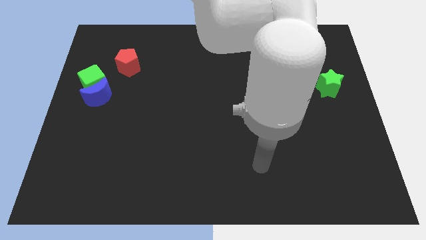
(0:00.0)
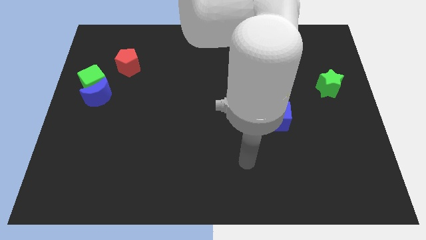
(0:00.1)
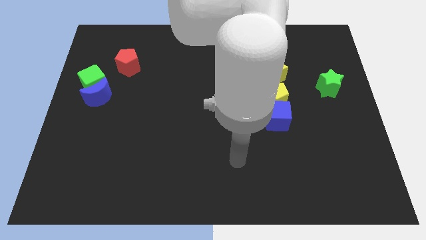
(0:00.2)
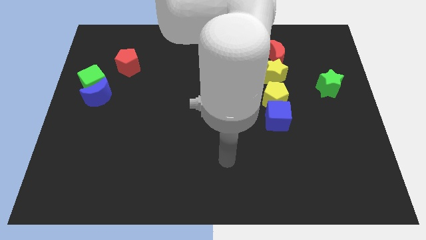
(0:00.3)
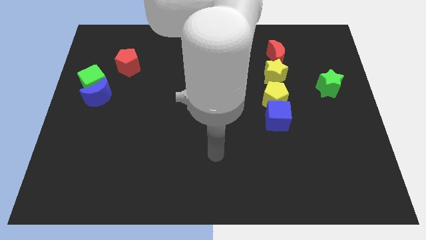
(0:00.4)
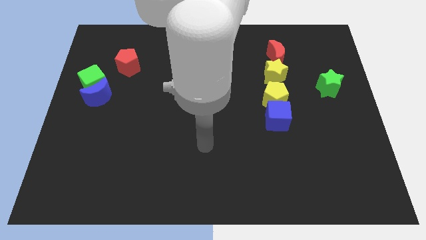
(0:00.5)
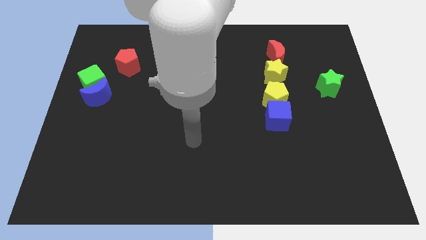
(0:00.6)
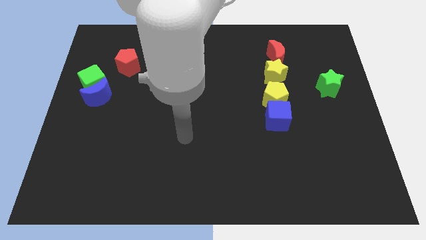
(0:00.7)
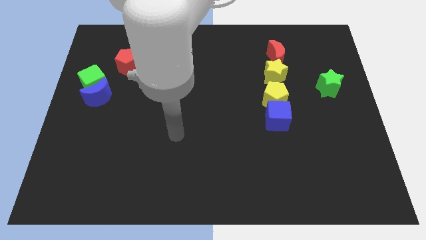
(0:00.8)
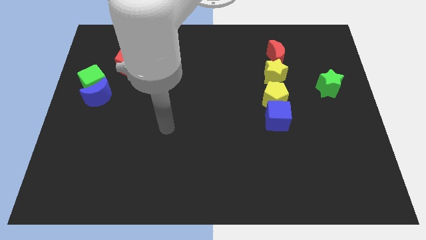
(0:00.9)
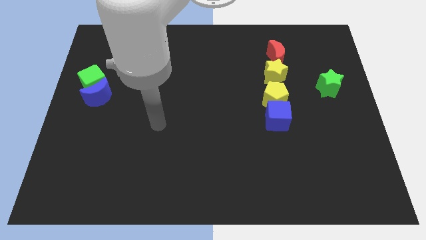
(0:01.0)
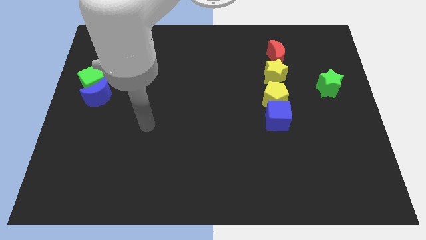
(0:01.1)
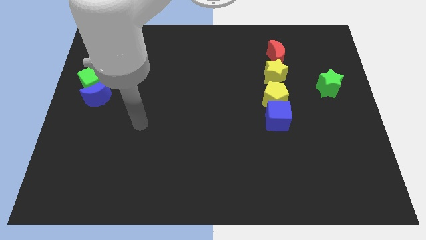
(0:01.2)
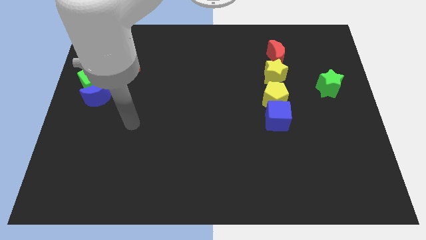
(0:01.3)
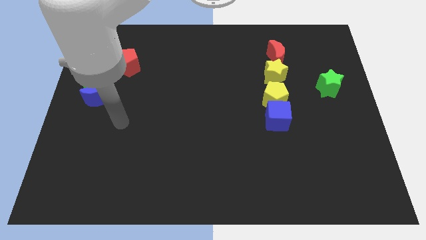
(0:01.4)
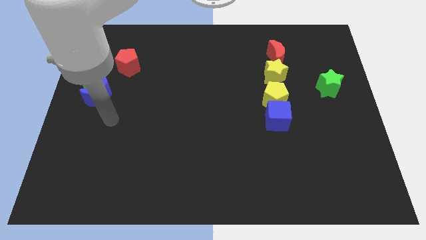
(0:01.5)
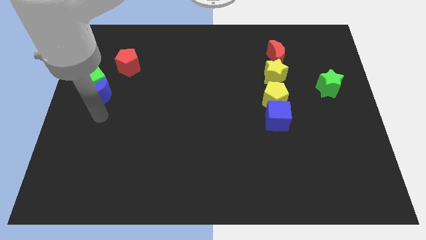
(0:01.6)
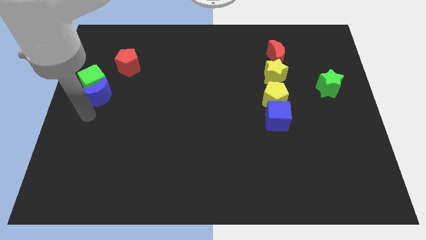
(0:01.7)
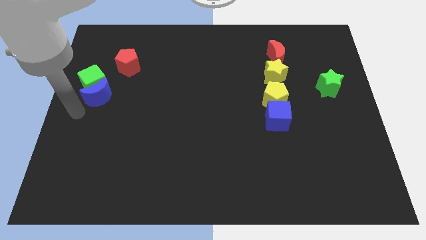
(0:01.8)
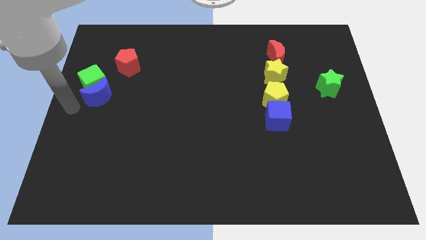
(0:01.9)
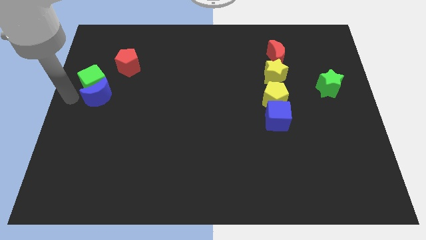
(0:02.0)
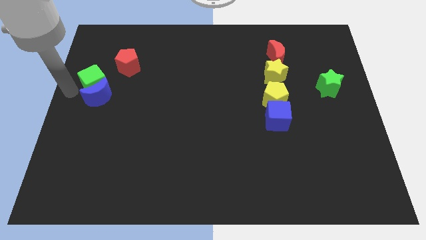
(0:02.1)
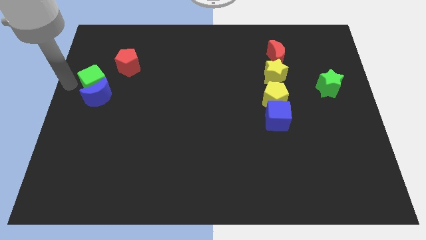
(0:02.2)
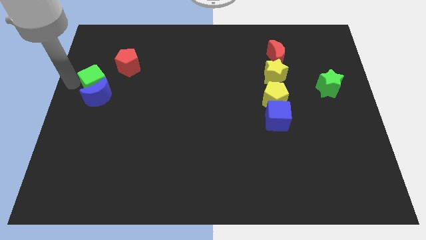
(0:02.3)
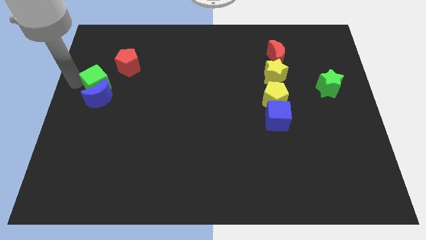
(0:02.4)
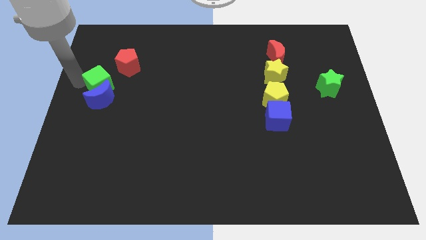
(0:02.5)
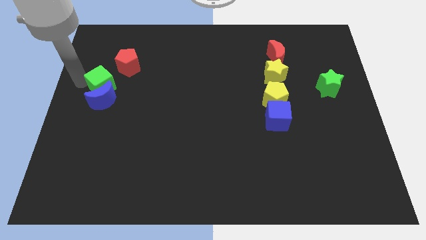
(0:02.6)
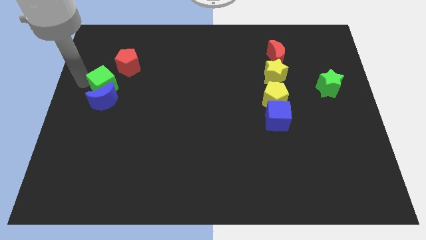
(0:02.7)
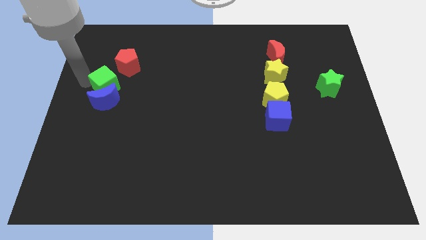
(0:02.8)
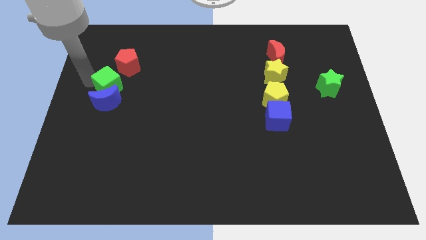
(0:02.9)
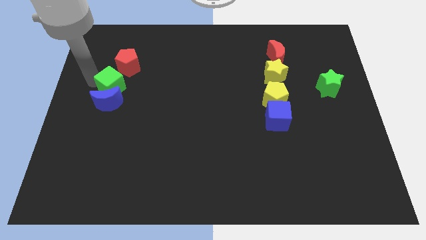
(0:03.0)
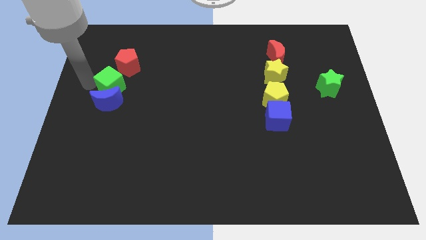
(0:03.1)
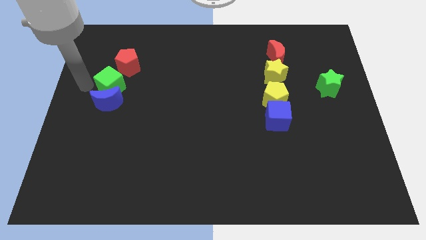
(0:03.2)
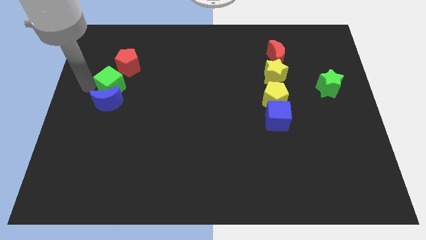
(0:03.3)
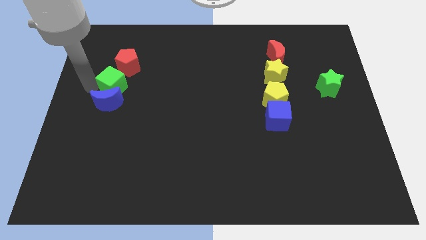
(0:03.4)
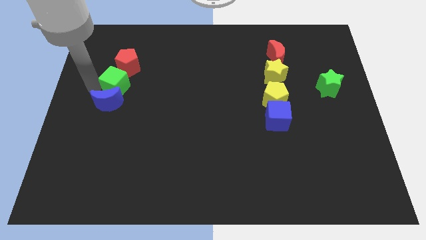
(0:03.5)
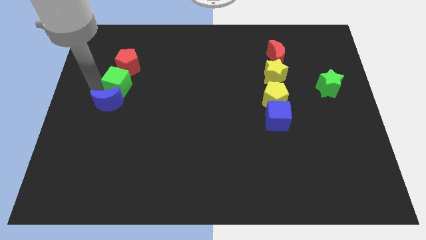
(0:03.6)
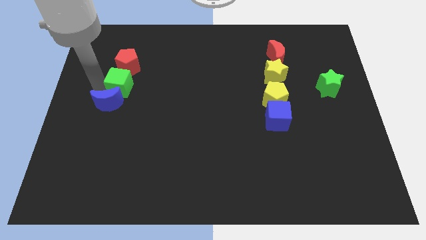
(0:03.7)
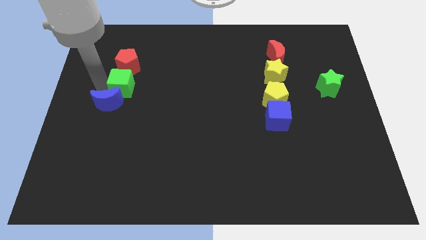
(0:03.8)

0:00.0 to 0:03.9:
slightly move the green cube to the right

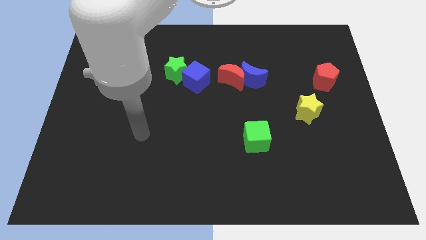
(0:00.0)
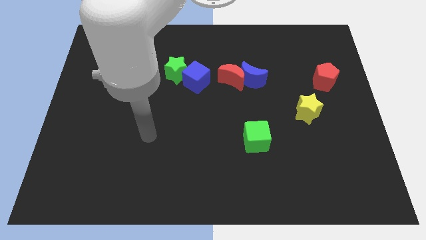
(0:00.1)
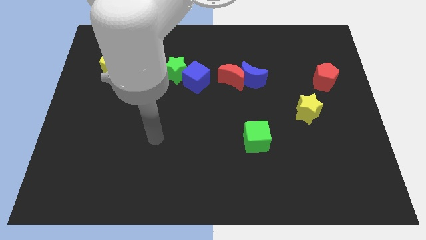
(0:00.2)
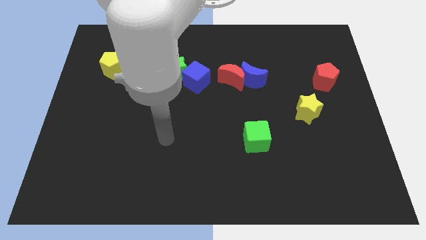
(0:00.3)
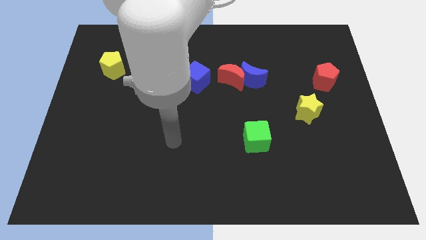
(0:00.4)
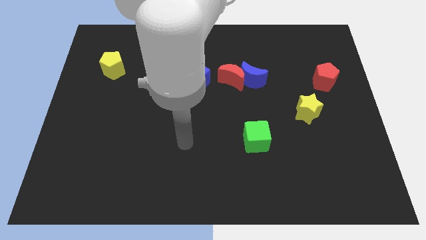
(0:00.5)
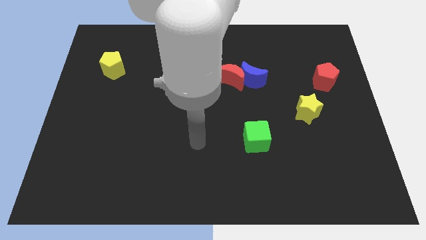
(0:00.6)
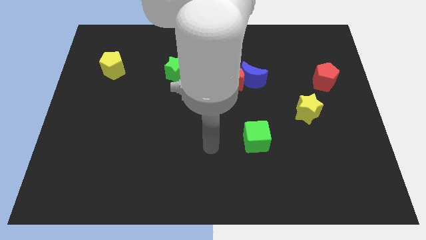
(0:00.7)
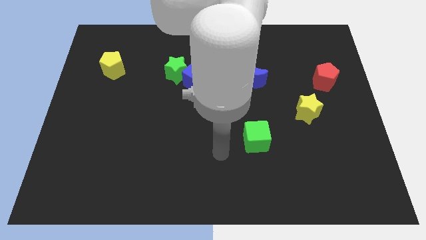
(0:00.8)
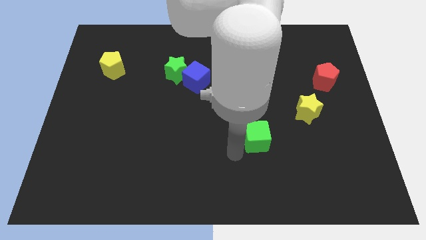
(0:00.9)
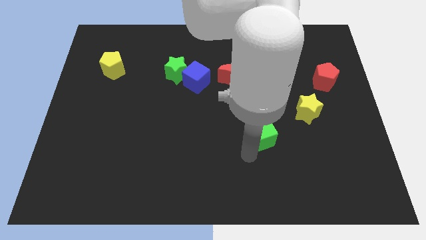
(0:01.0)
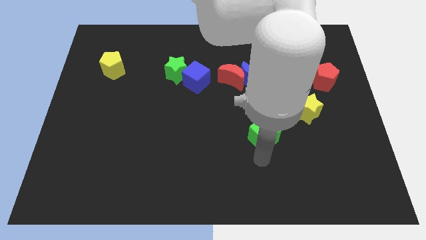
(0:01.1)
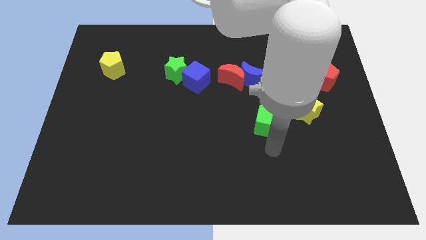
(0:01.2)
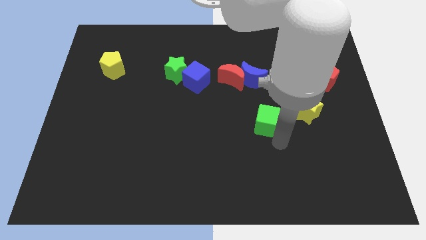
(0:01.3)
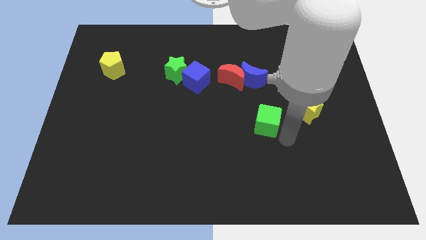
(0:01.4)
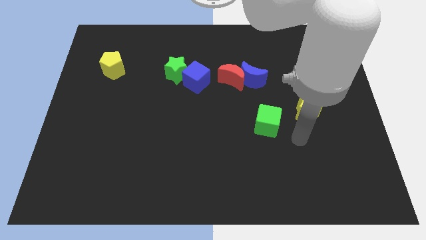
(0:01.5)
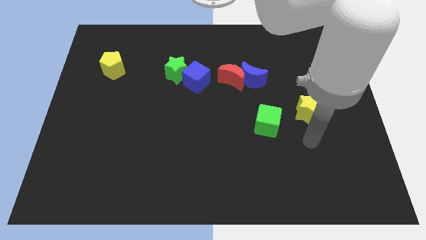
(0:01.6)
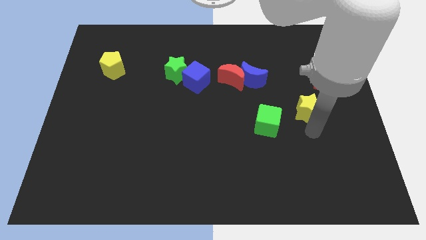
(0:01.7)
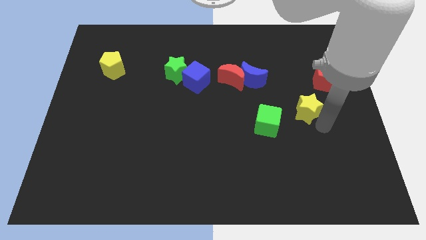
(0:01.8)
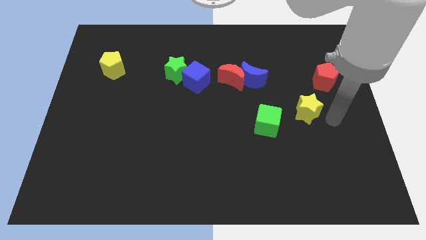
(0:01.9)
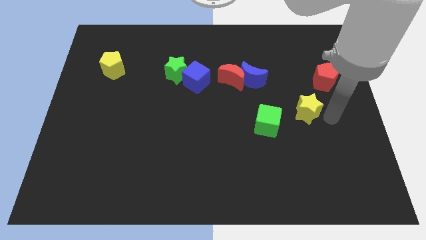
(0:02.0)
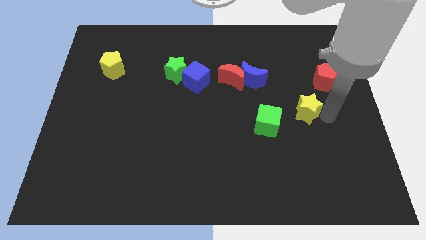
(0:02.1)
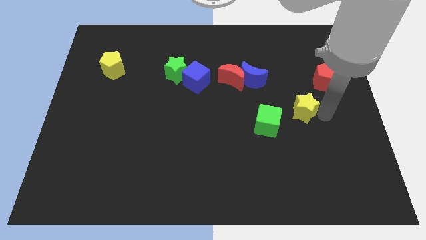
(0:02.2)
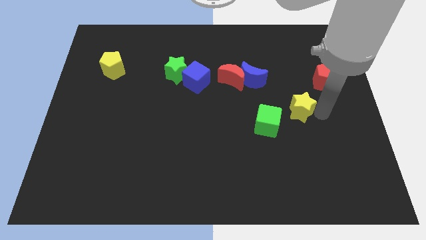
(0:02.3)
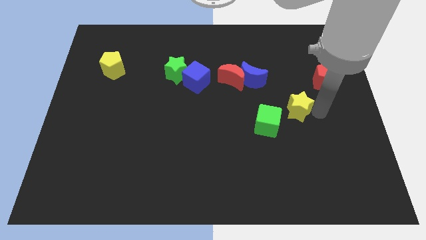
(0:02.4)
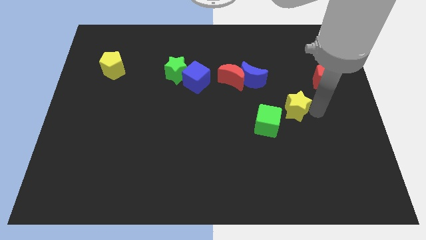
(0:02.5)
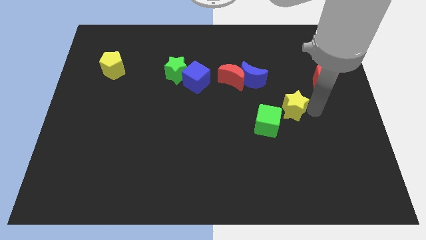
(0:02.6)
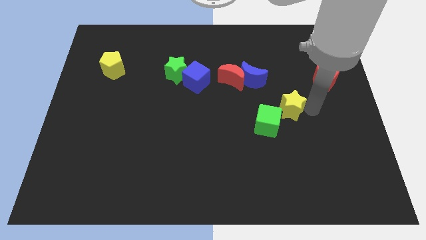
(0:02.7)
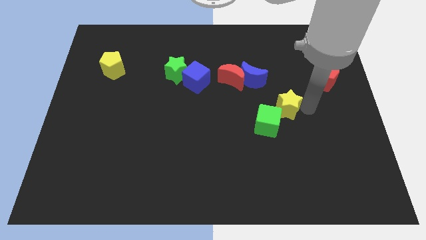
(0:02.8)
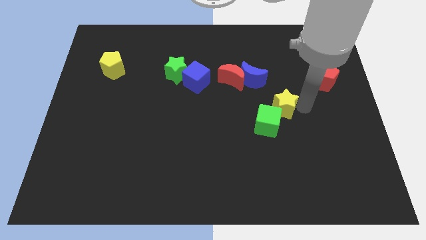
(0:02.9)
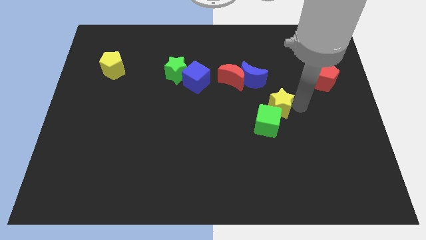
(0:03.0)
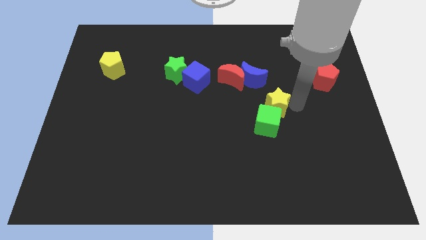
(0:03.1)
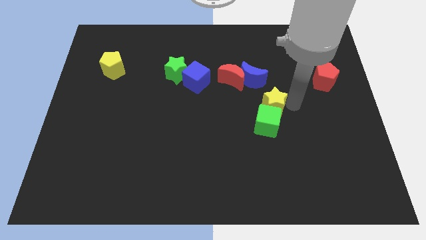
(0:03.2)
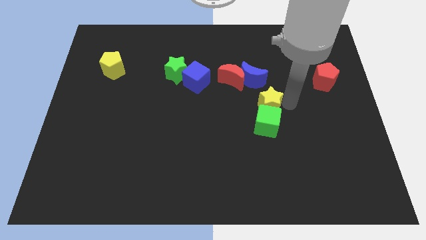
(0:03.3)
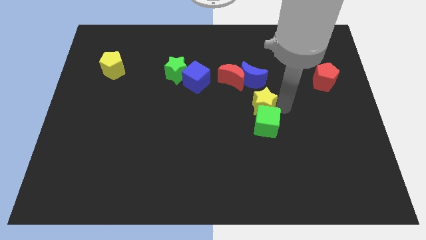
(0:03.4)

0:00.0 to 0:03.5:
slightly slide the yellow star up and left

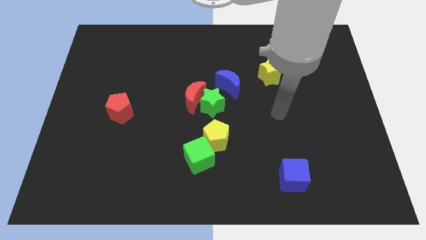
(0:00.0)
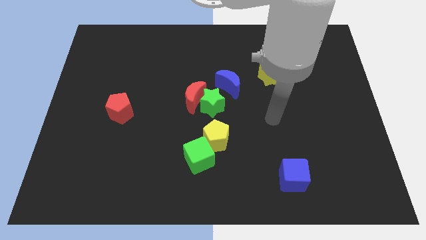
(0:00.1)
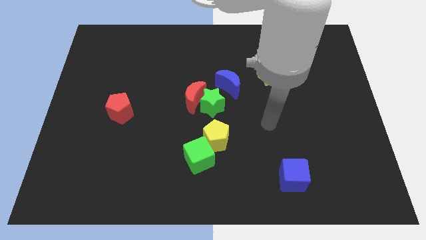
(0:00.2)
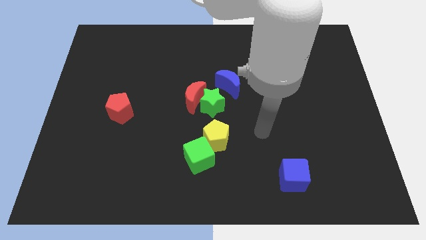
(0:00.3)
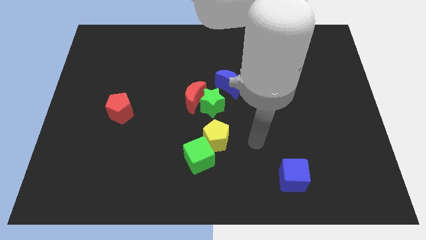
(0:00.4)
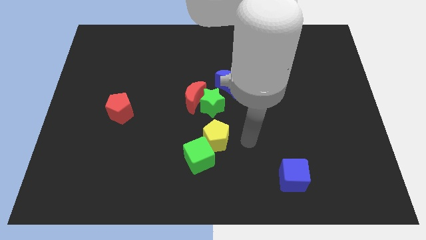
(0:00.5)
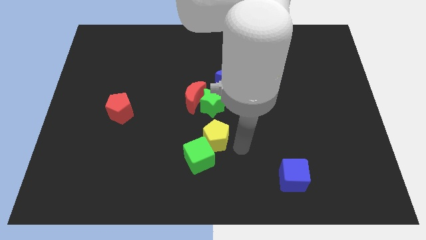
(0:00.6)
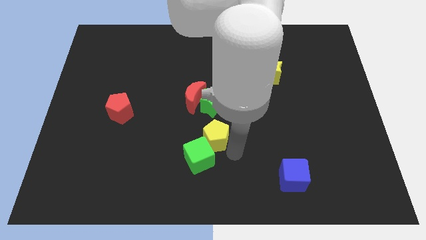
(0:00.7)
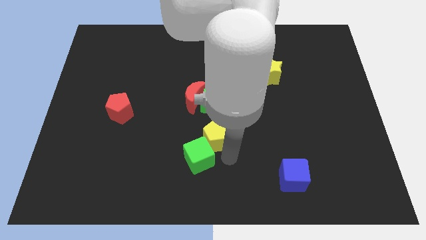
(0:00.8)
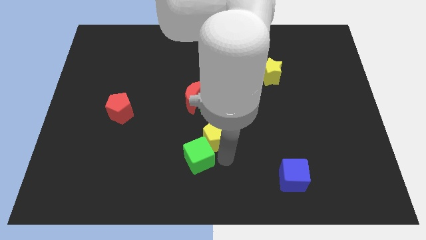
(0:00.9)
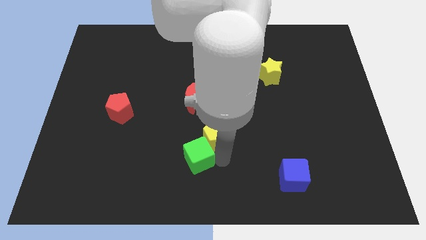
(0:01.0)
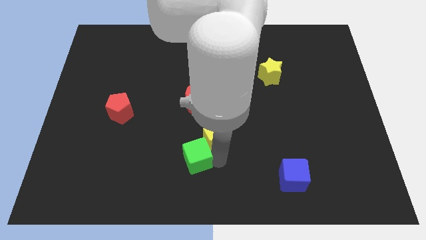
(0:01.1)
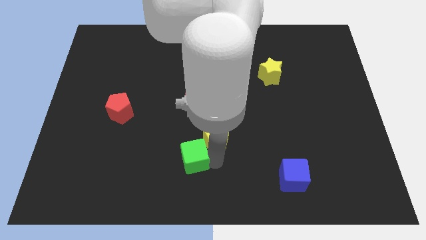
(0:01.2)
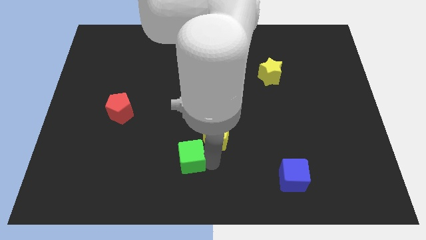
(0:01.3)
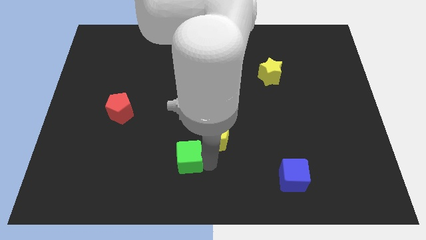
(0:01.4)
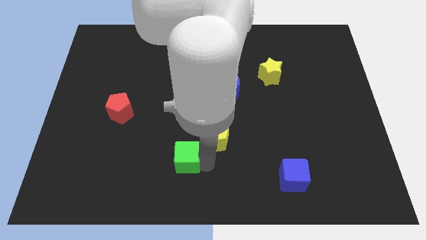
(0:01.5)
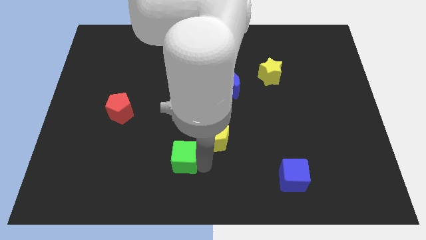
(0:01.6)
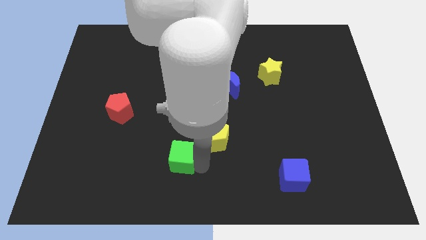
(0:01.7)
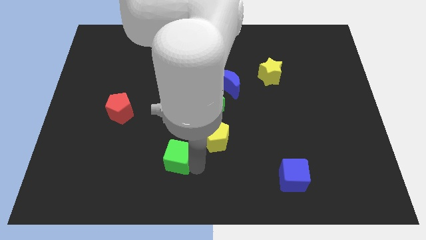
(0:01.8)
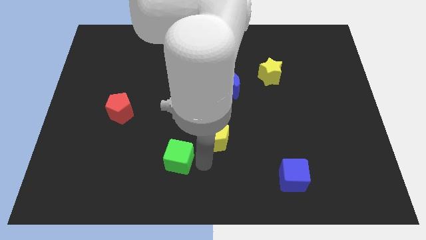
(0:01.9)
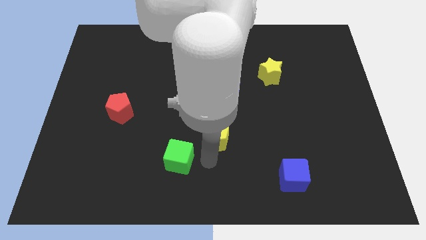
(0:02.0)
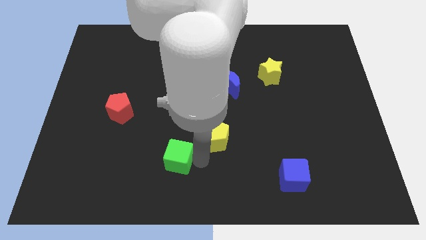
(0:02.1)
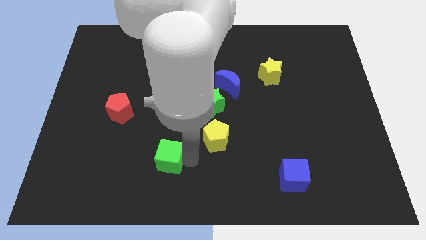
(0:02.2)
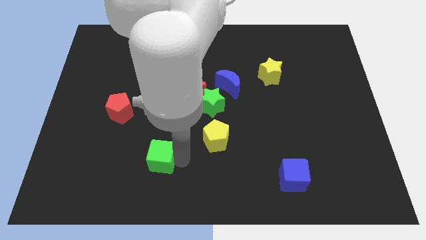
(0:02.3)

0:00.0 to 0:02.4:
slide the green cube left a little
